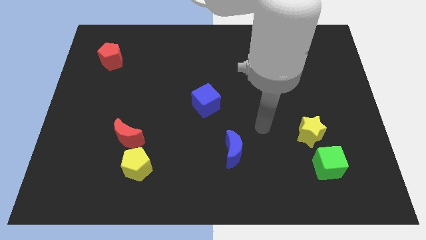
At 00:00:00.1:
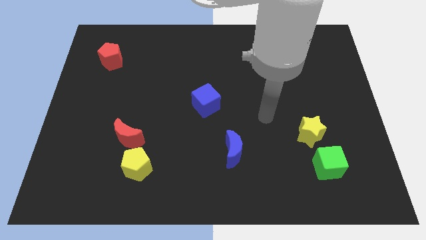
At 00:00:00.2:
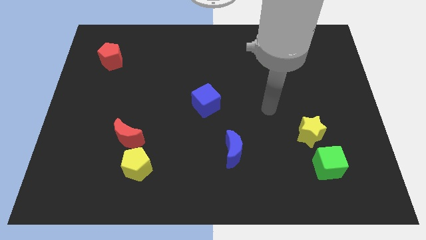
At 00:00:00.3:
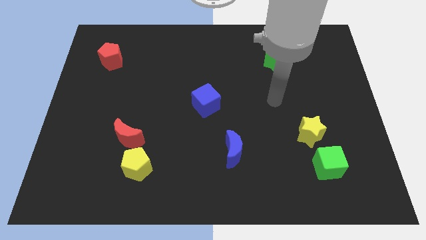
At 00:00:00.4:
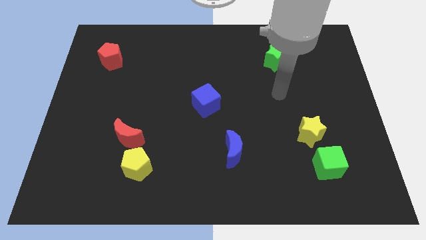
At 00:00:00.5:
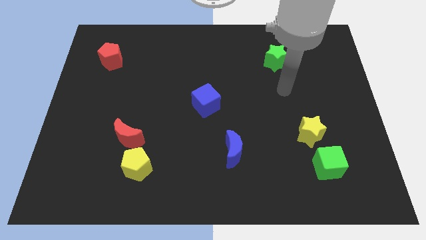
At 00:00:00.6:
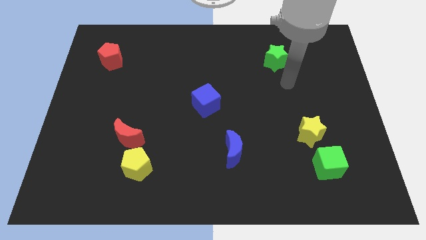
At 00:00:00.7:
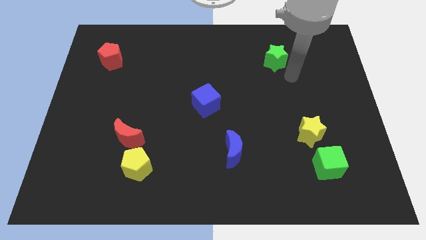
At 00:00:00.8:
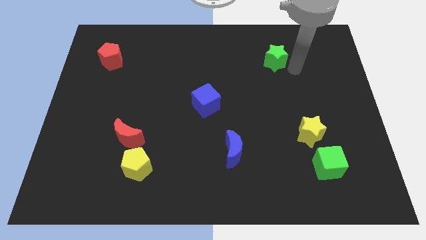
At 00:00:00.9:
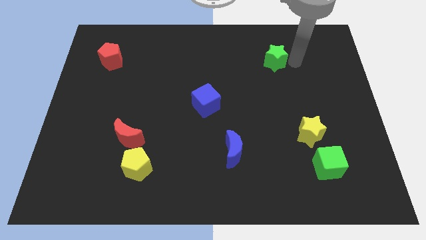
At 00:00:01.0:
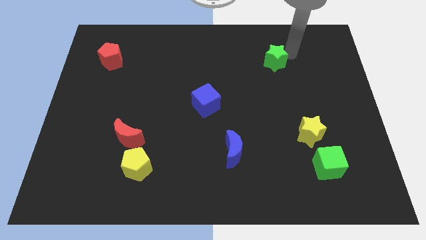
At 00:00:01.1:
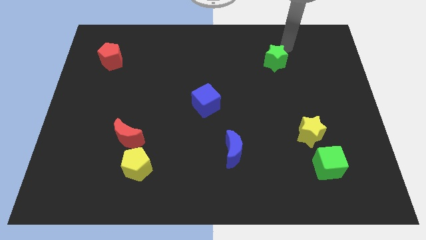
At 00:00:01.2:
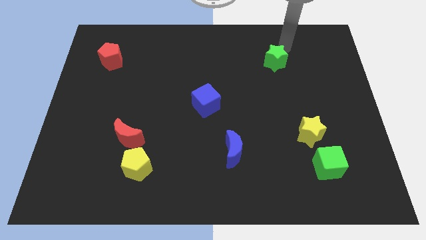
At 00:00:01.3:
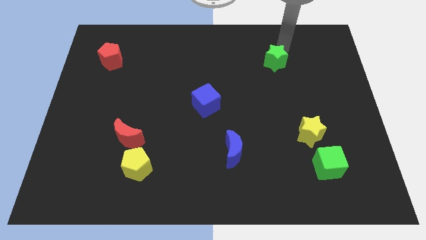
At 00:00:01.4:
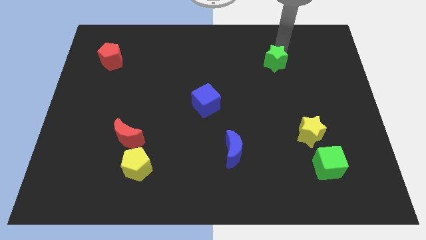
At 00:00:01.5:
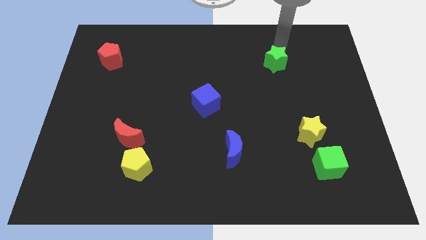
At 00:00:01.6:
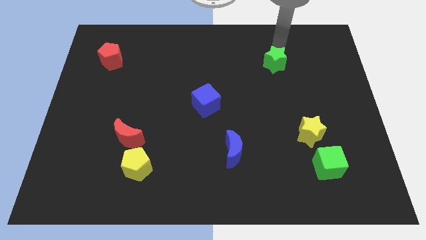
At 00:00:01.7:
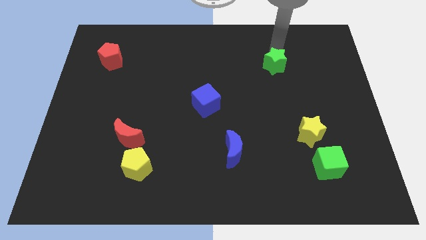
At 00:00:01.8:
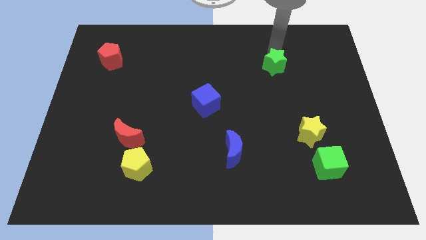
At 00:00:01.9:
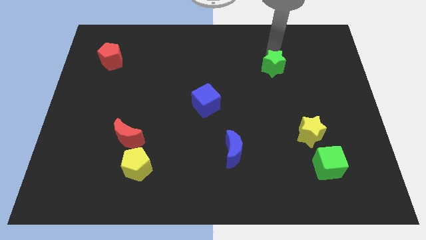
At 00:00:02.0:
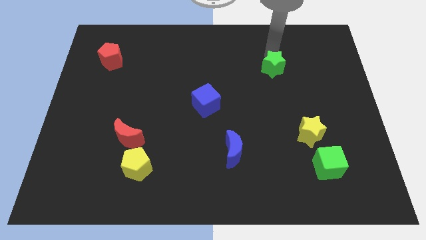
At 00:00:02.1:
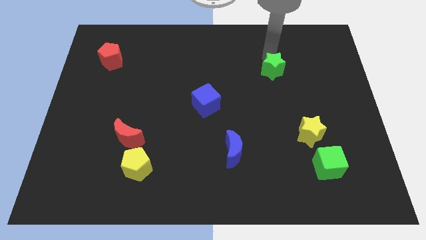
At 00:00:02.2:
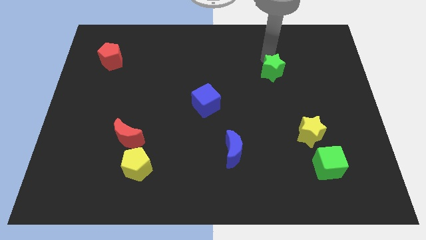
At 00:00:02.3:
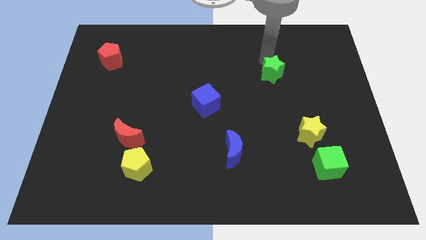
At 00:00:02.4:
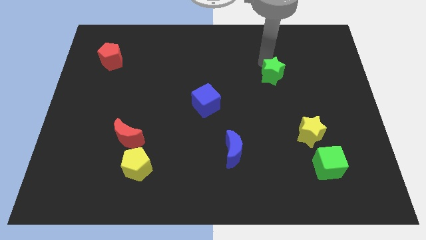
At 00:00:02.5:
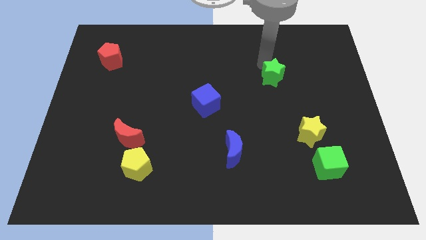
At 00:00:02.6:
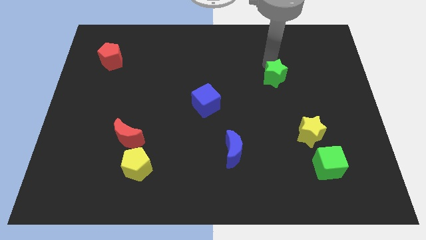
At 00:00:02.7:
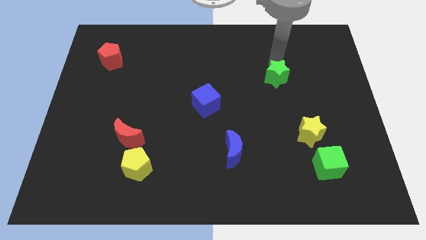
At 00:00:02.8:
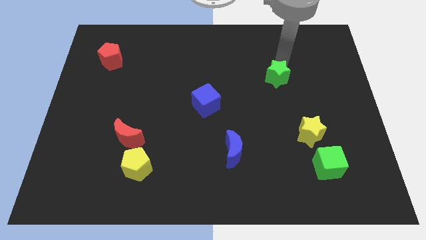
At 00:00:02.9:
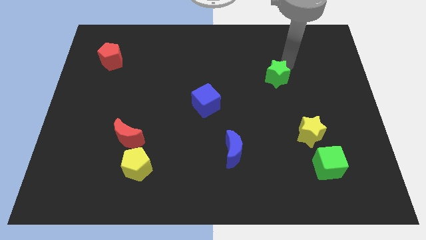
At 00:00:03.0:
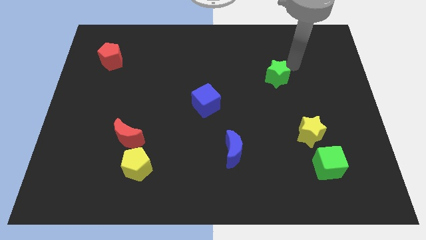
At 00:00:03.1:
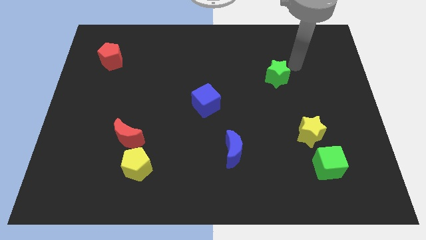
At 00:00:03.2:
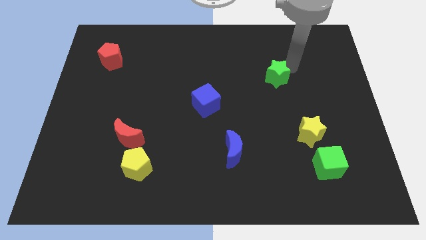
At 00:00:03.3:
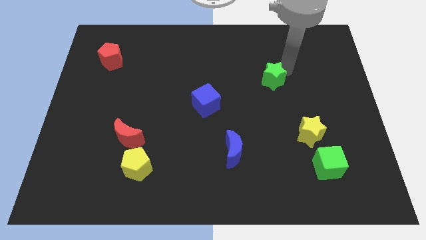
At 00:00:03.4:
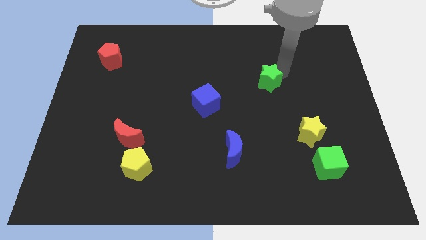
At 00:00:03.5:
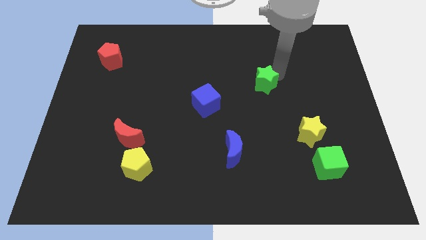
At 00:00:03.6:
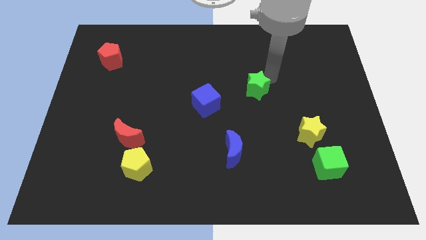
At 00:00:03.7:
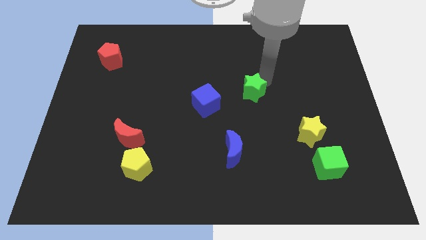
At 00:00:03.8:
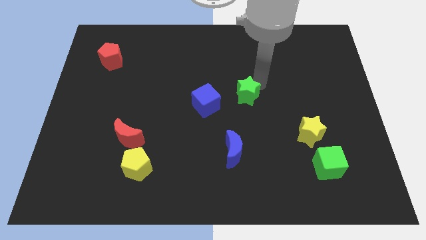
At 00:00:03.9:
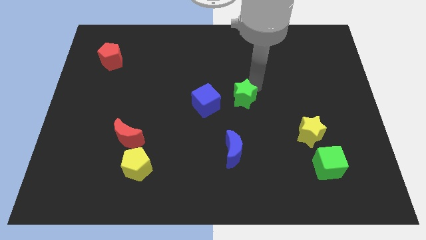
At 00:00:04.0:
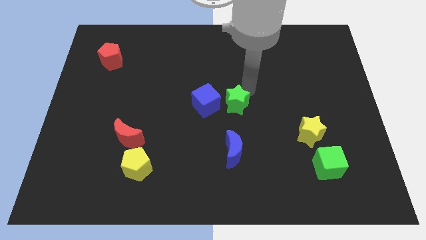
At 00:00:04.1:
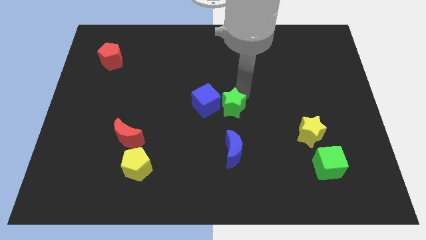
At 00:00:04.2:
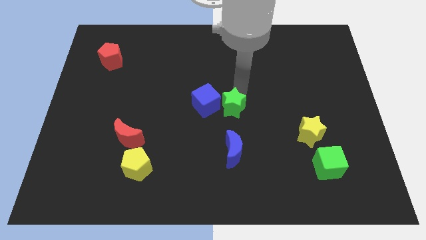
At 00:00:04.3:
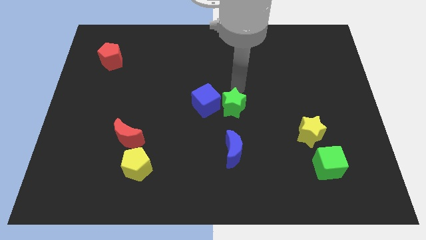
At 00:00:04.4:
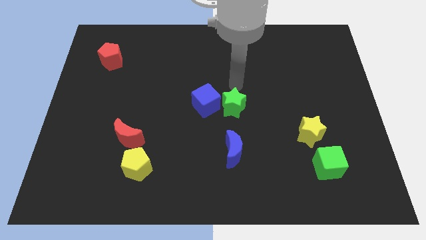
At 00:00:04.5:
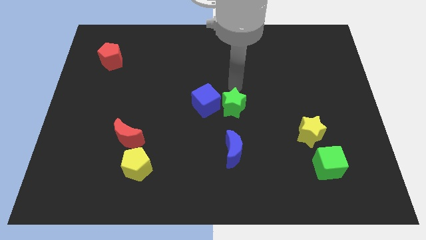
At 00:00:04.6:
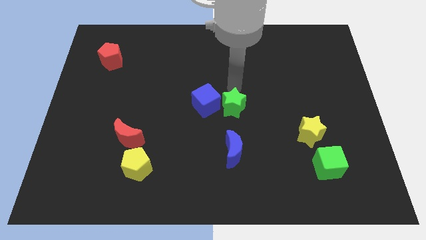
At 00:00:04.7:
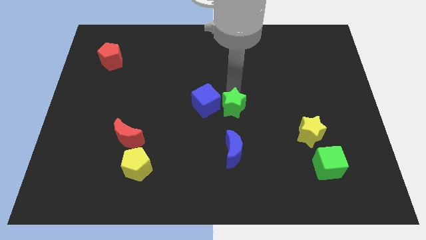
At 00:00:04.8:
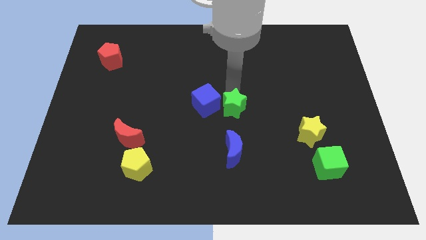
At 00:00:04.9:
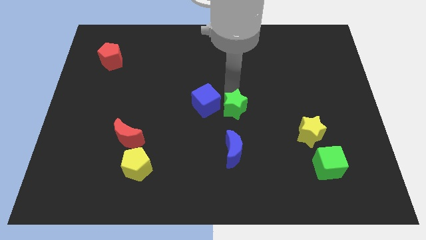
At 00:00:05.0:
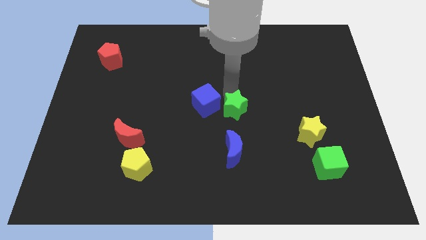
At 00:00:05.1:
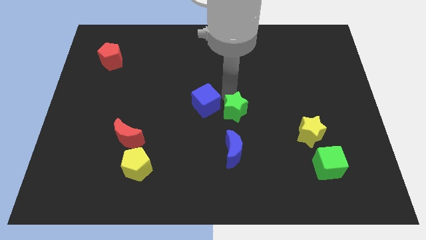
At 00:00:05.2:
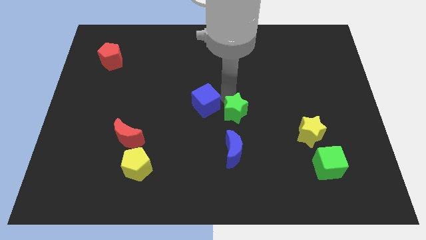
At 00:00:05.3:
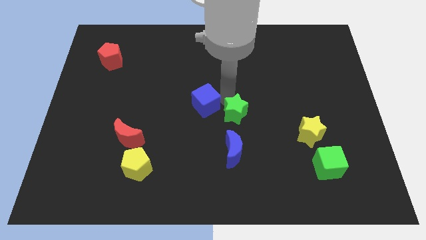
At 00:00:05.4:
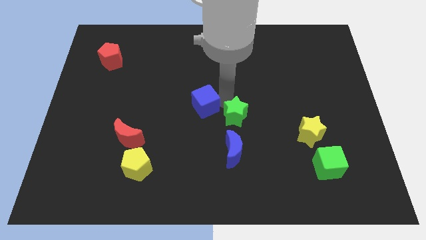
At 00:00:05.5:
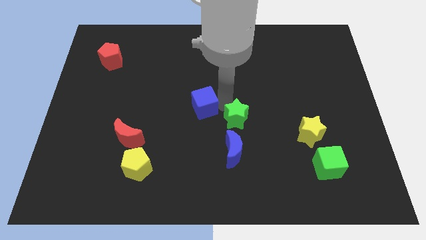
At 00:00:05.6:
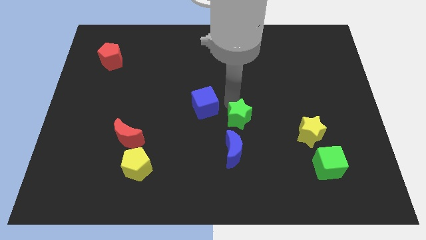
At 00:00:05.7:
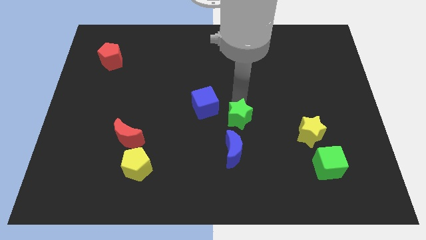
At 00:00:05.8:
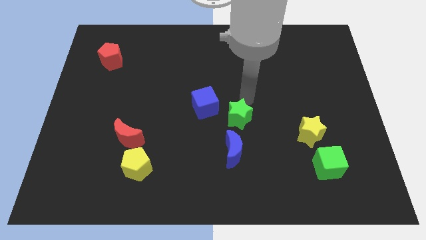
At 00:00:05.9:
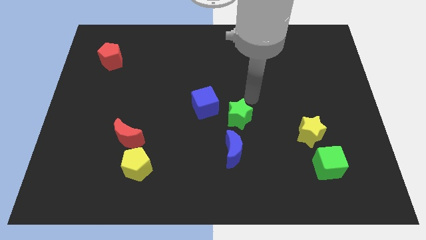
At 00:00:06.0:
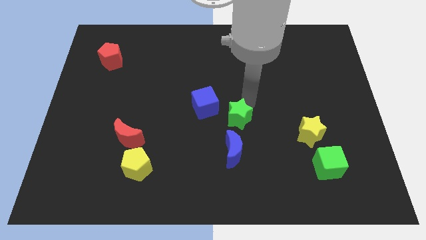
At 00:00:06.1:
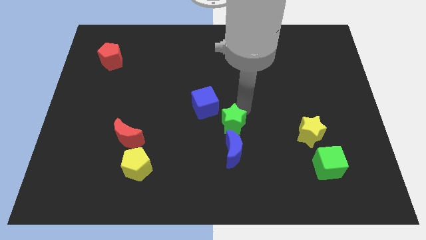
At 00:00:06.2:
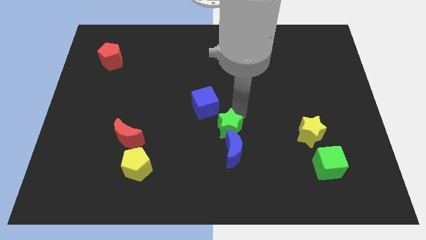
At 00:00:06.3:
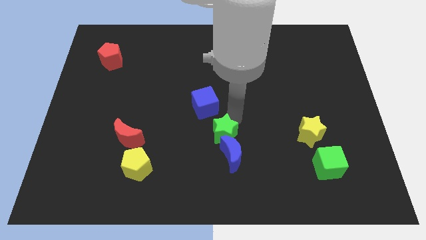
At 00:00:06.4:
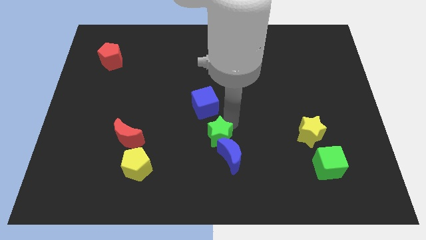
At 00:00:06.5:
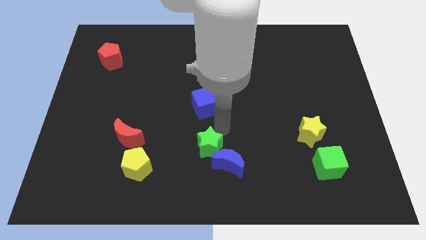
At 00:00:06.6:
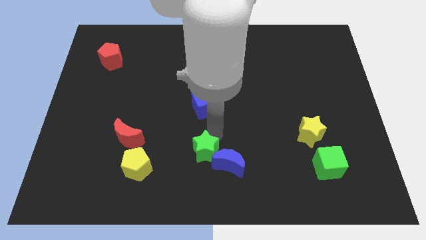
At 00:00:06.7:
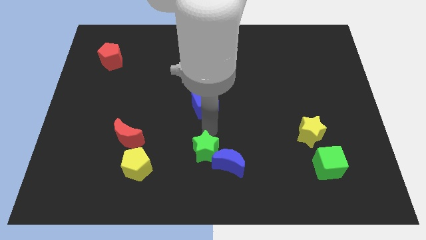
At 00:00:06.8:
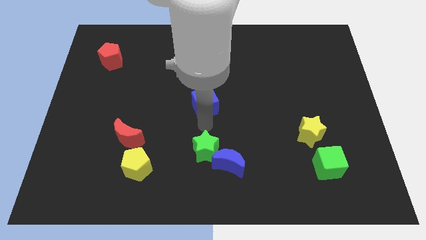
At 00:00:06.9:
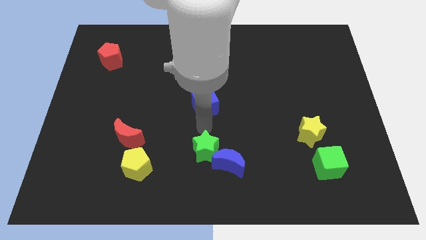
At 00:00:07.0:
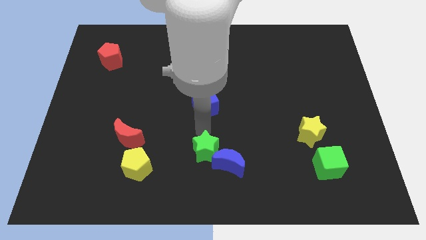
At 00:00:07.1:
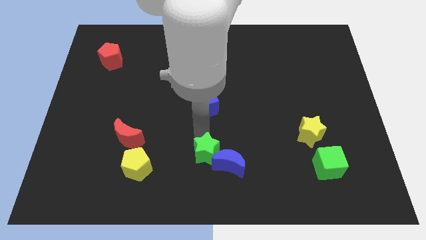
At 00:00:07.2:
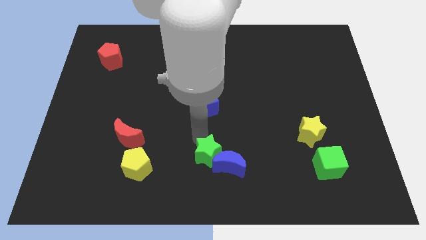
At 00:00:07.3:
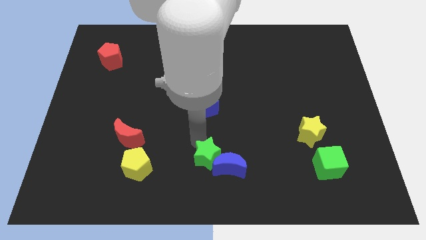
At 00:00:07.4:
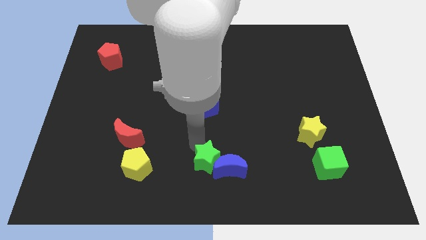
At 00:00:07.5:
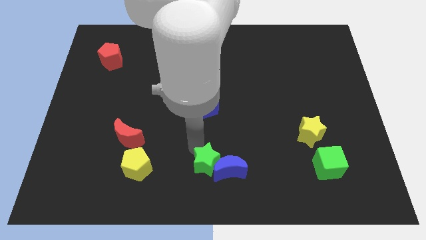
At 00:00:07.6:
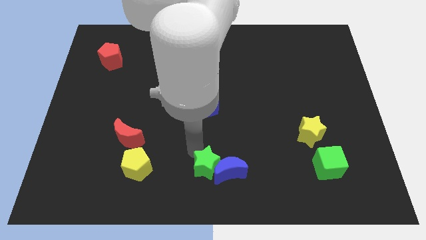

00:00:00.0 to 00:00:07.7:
move the green star to the bottom left of the blue moon
